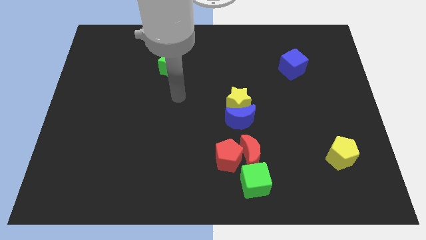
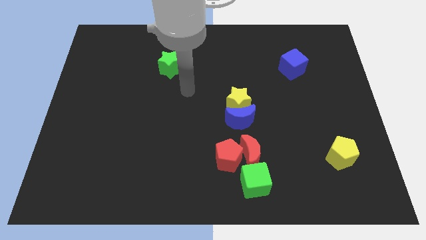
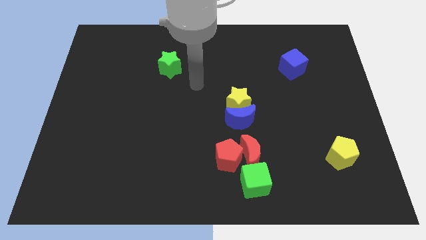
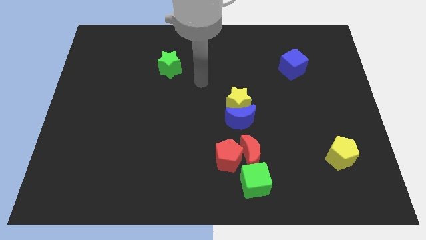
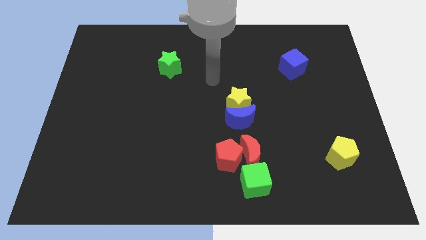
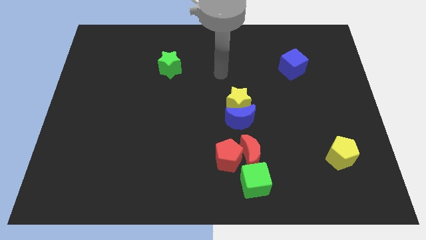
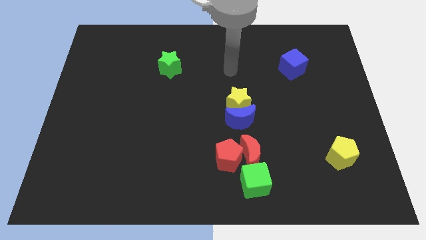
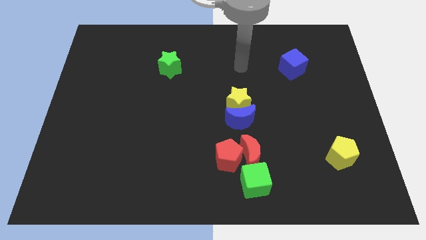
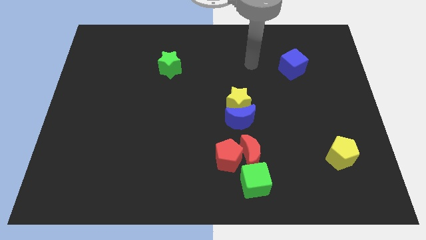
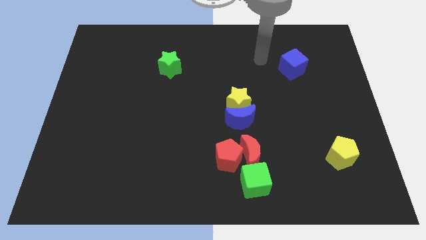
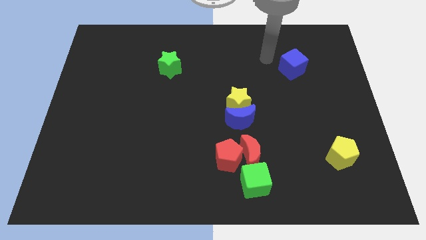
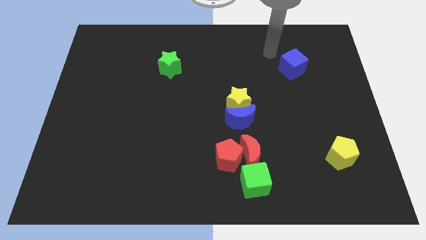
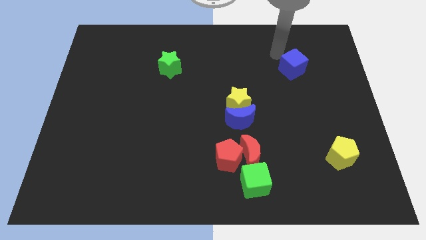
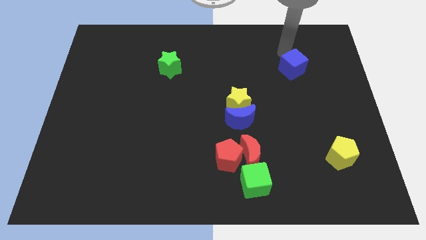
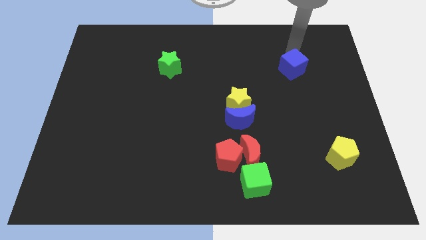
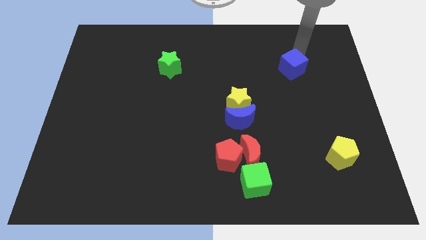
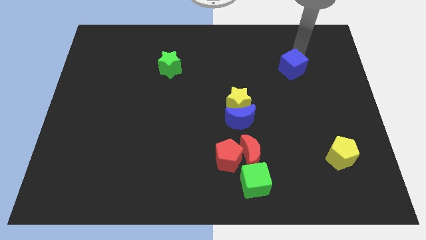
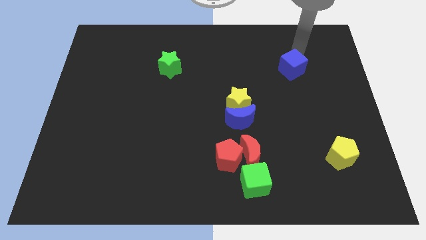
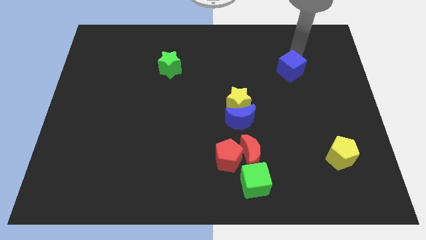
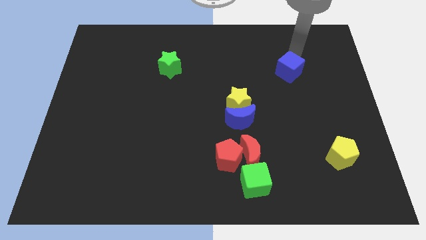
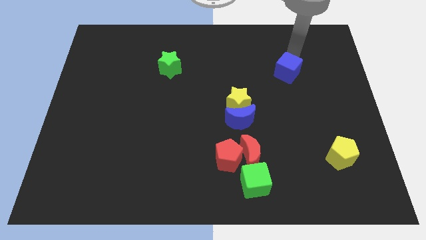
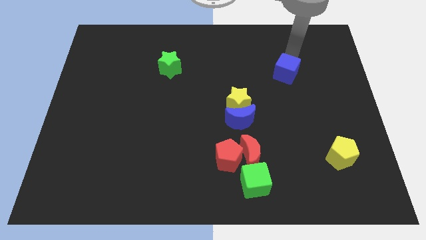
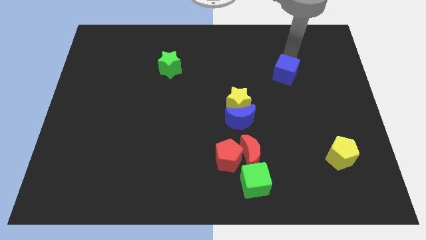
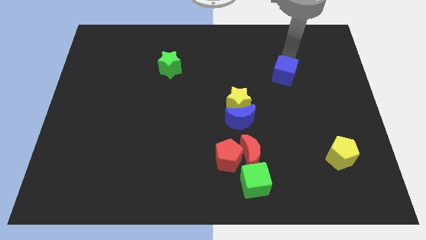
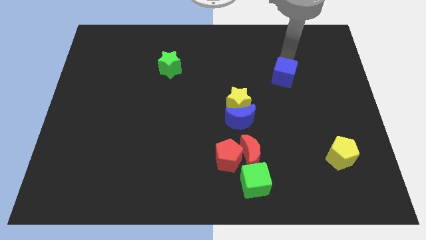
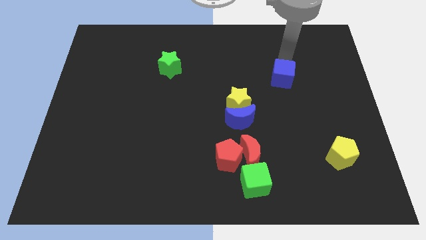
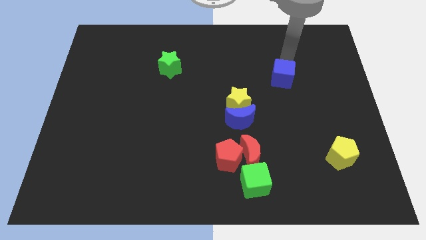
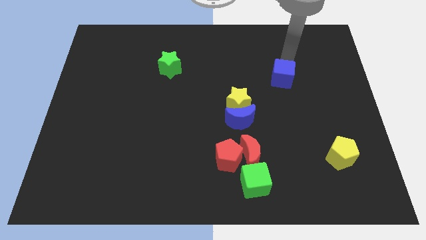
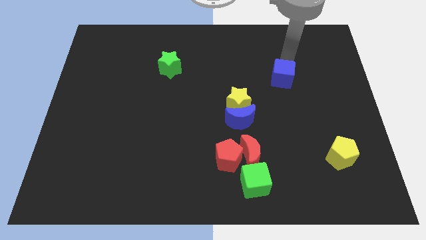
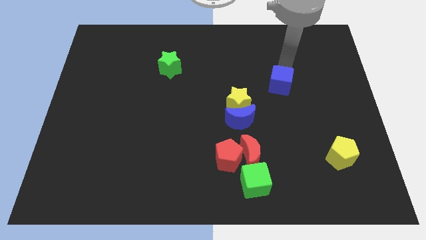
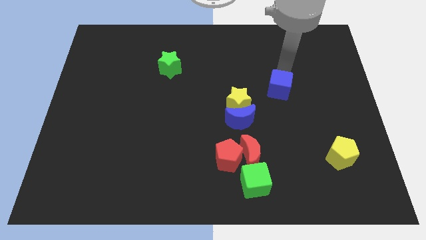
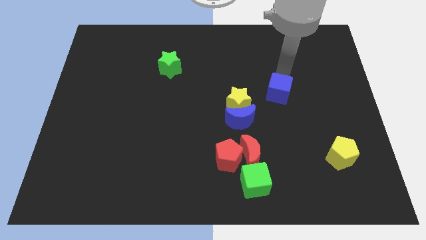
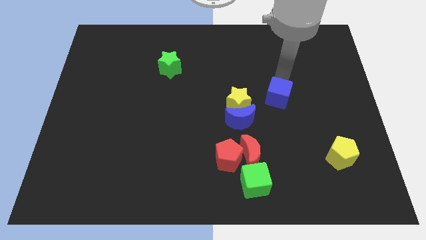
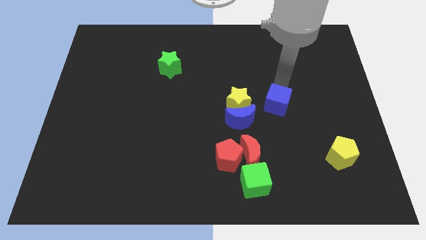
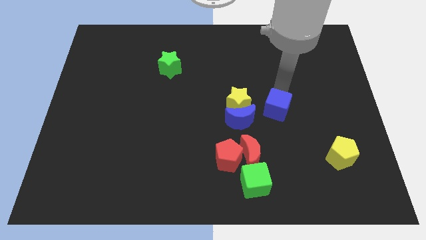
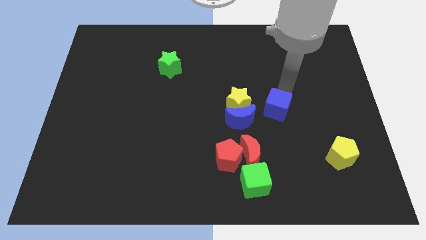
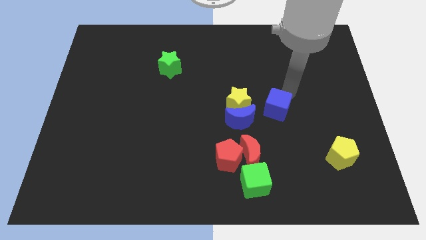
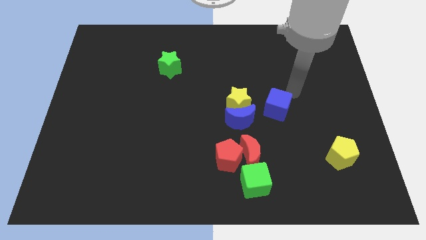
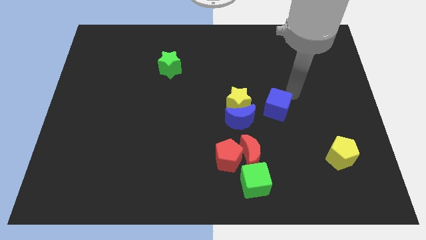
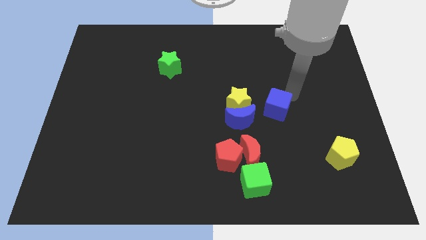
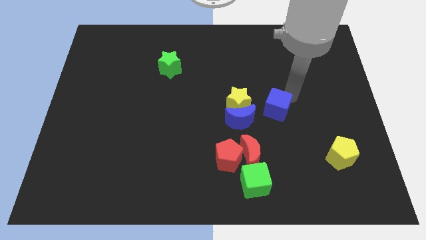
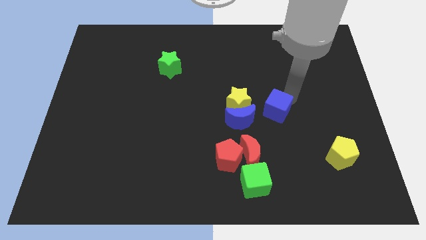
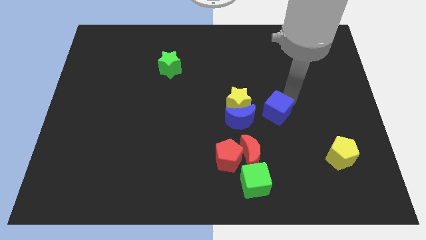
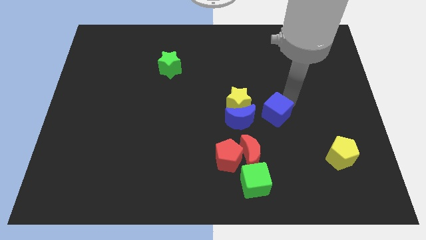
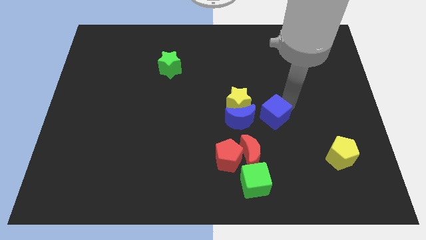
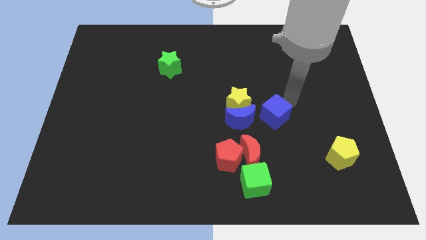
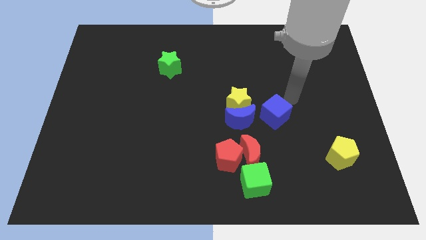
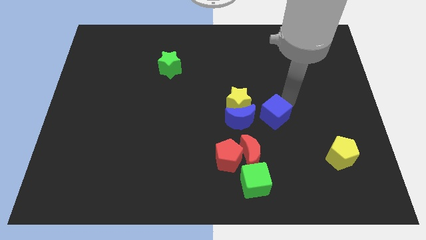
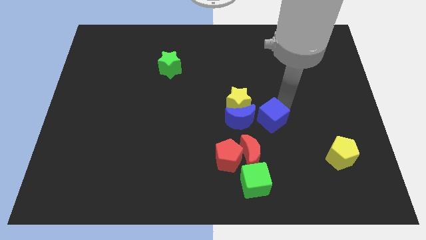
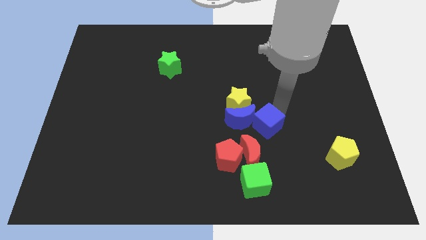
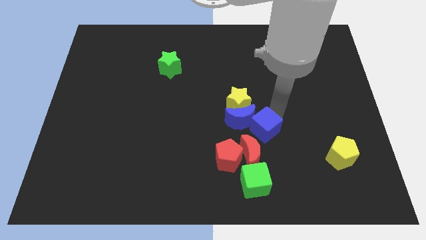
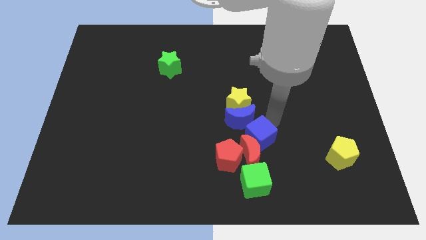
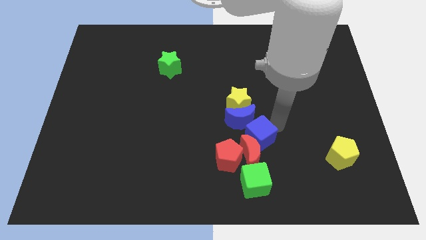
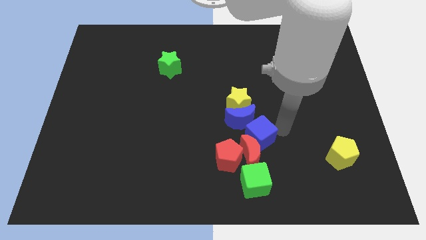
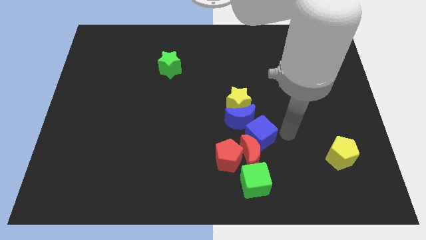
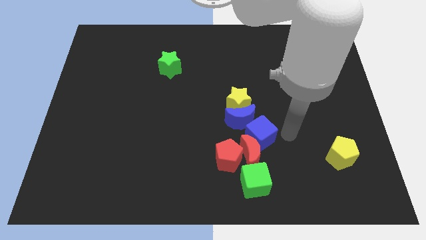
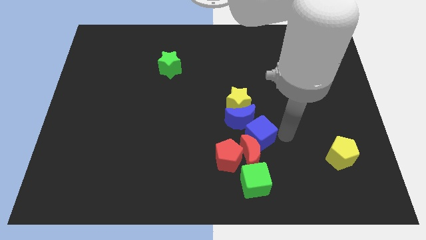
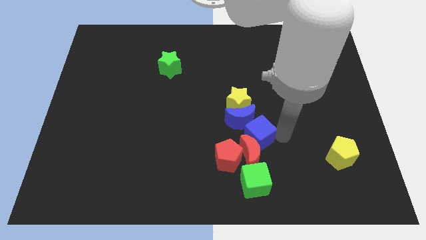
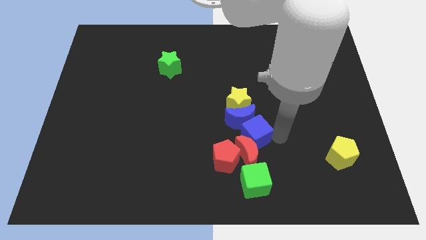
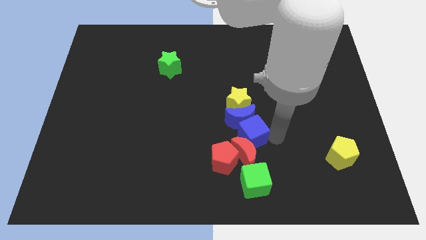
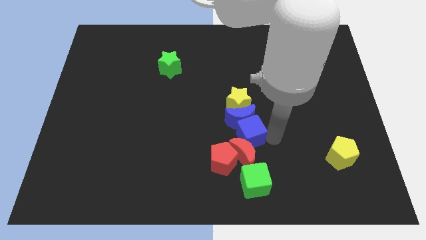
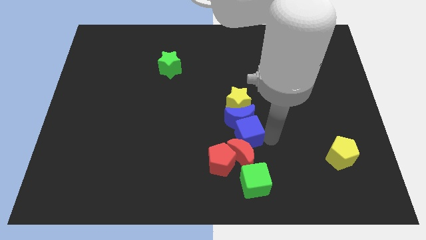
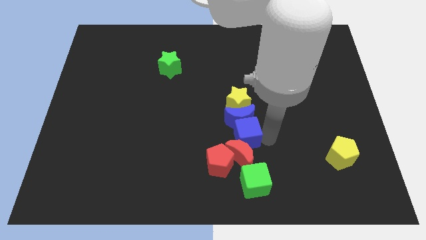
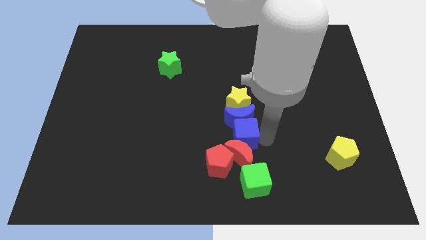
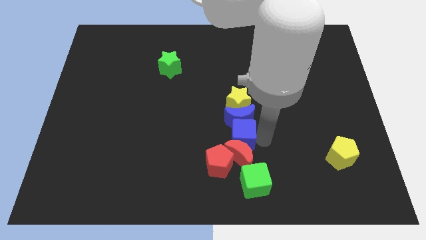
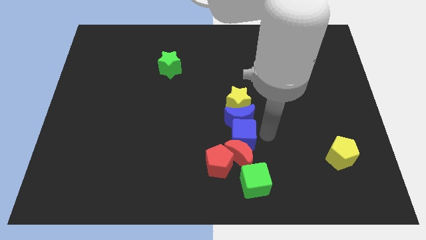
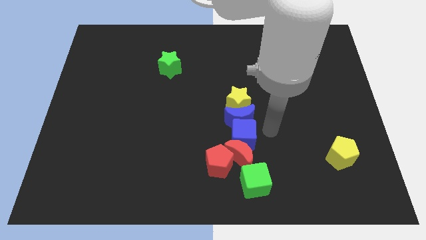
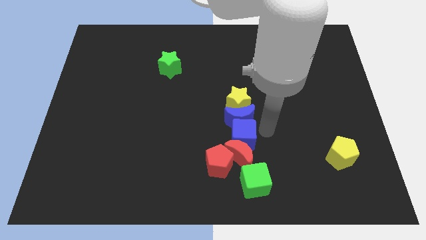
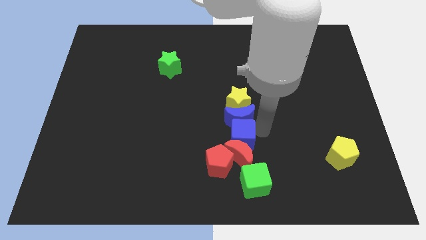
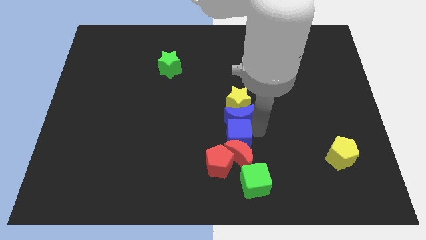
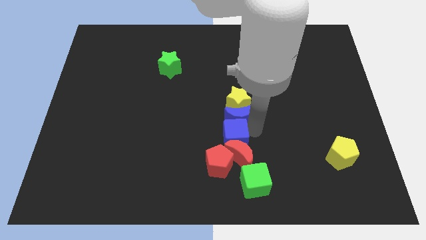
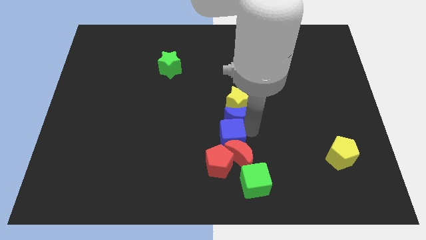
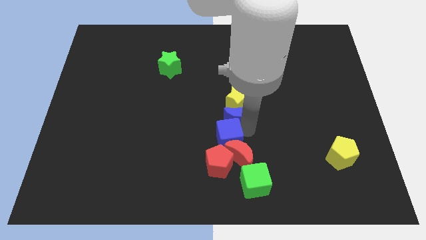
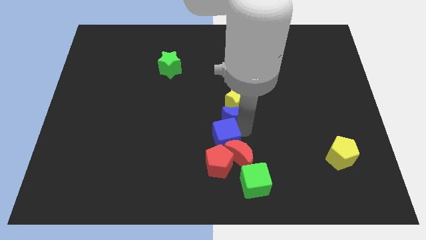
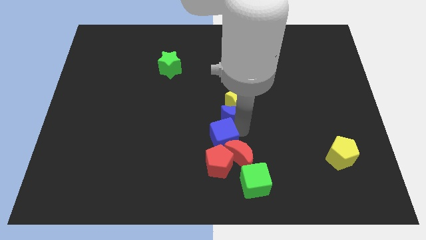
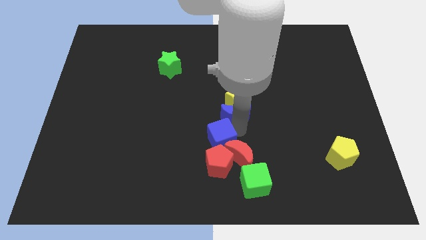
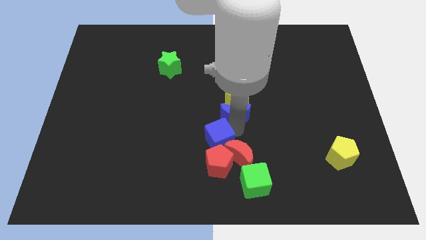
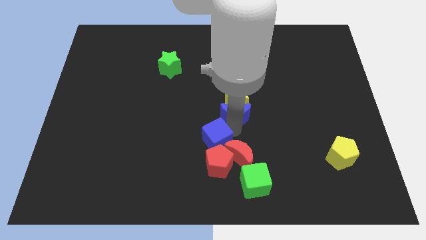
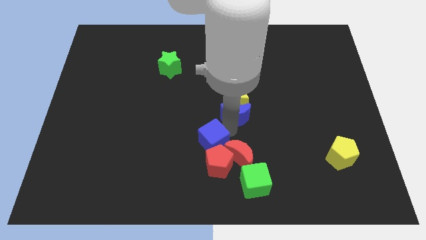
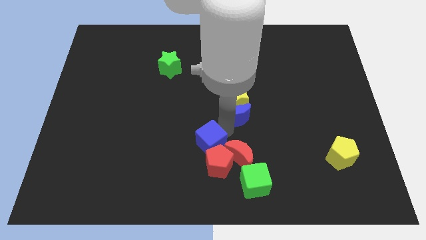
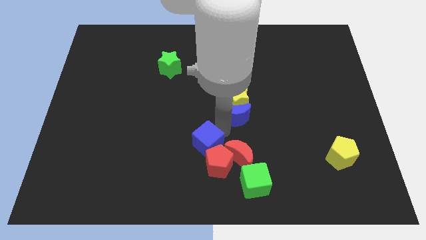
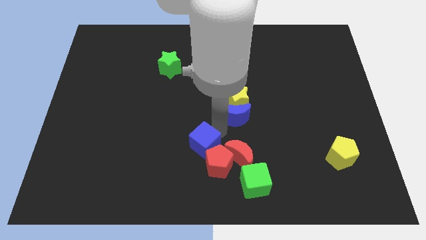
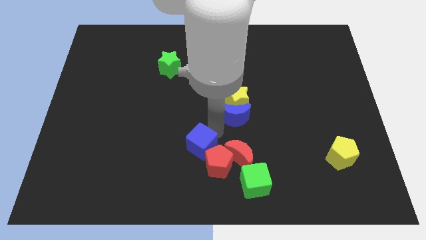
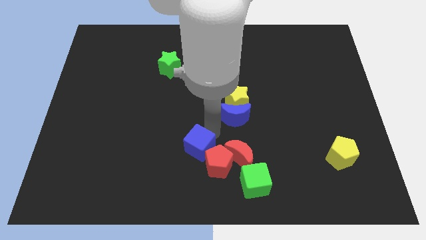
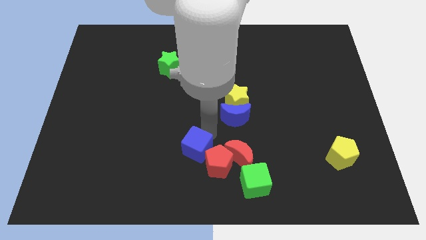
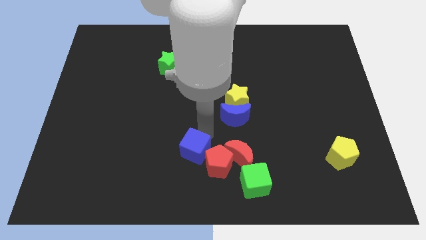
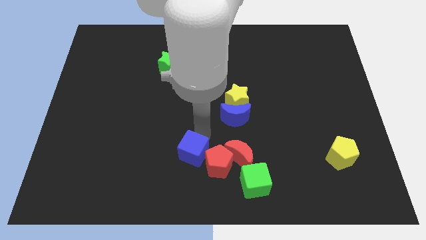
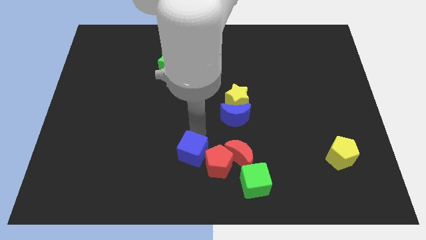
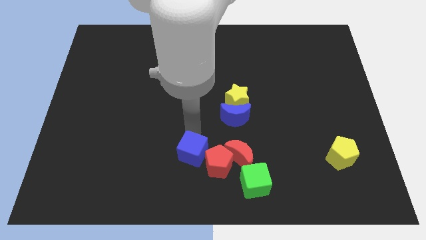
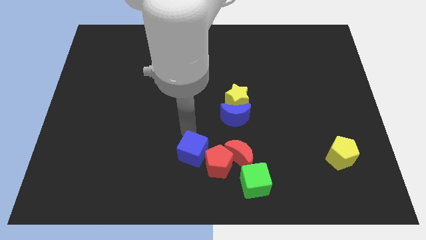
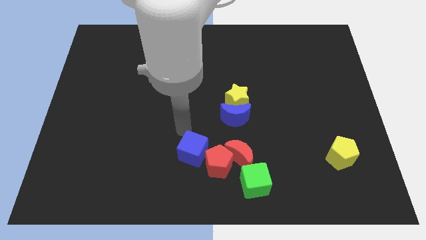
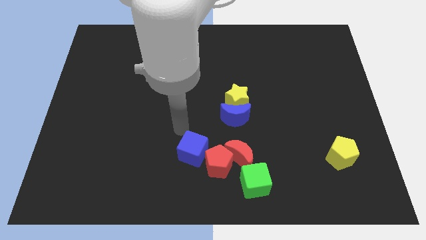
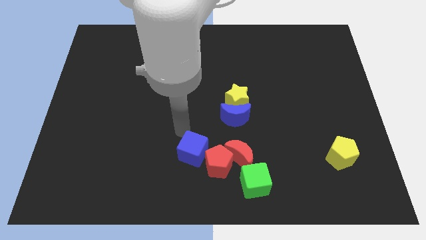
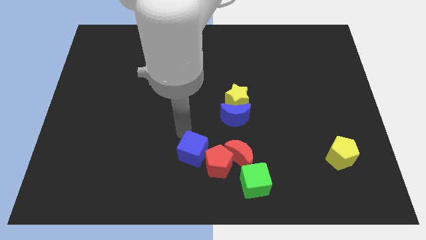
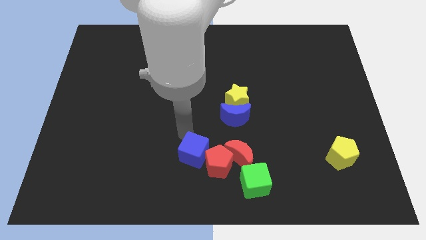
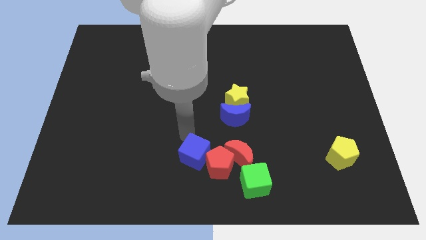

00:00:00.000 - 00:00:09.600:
push the blue cube to the bottom
